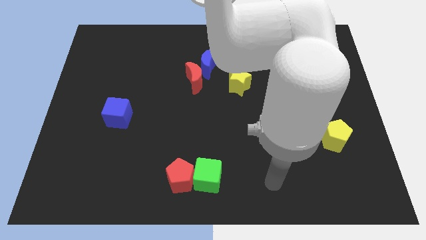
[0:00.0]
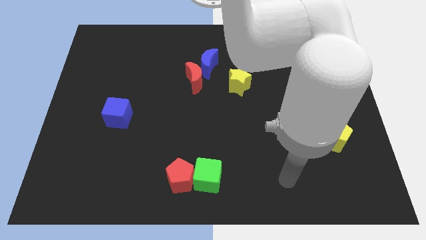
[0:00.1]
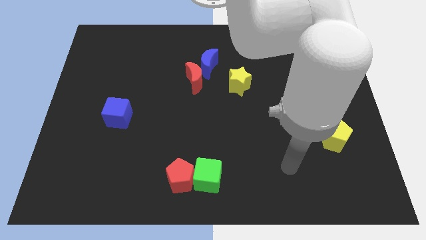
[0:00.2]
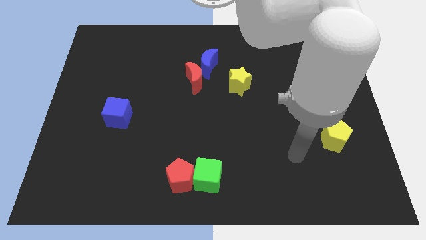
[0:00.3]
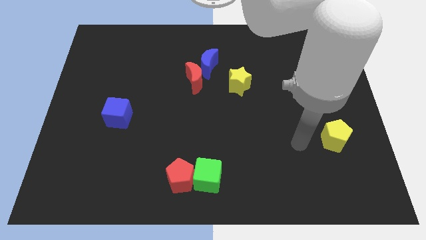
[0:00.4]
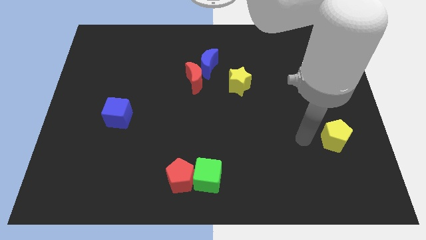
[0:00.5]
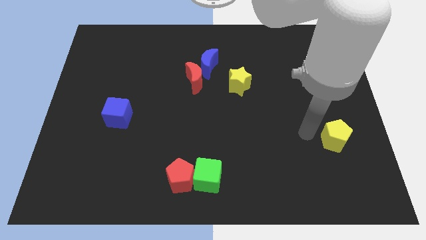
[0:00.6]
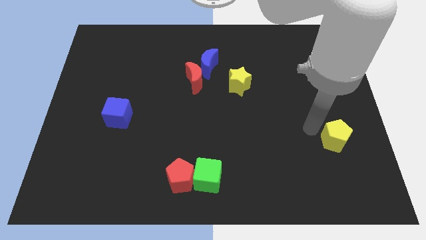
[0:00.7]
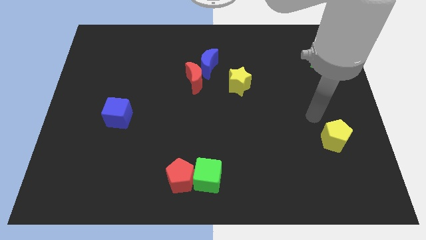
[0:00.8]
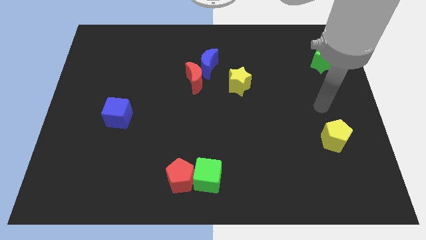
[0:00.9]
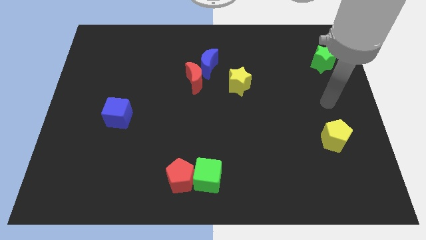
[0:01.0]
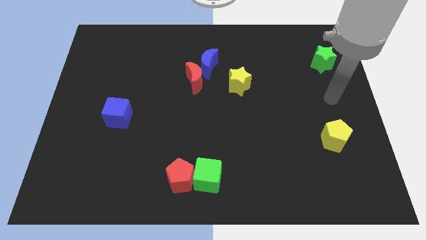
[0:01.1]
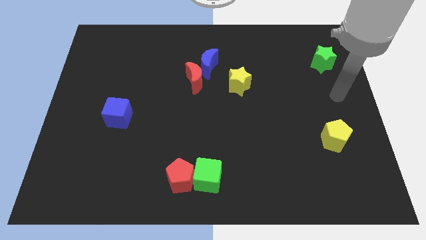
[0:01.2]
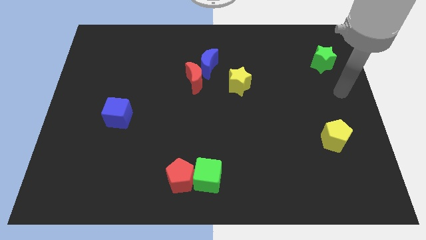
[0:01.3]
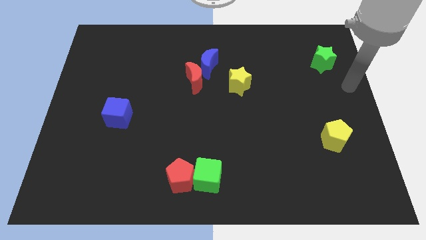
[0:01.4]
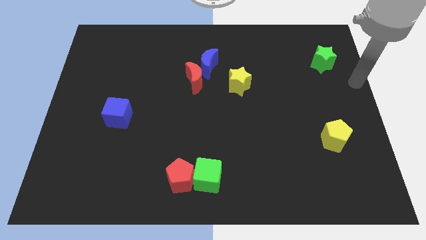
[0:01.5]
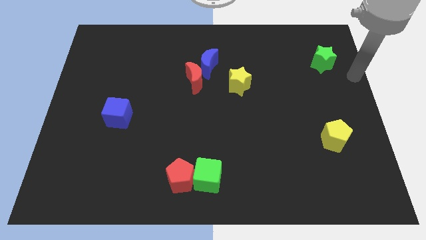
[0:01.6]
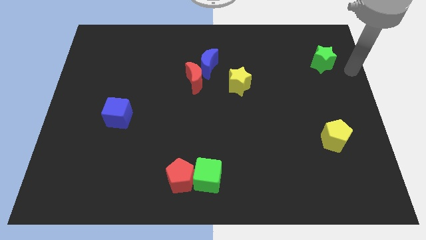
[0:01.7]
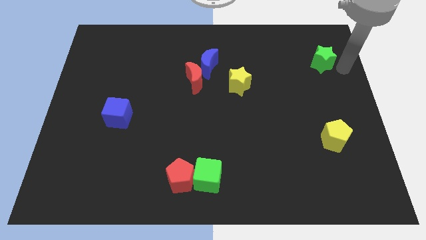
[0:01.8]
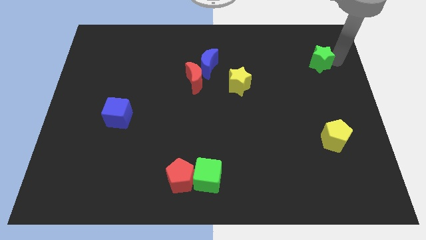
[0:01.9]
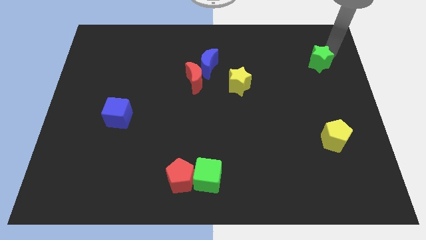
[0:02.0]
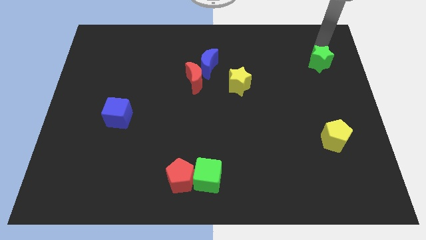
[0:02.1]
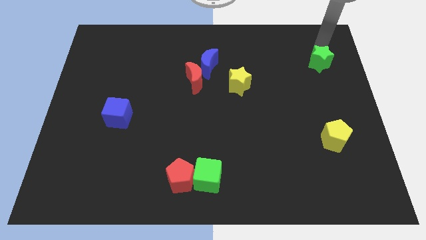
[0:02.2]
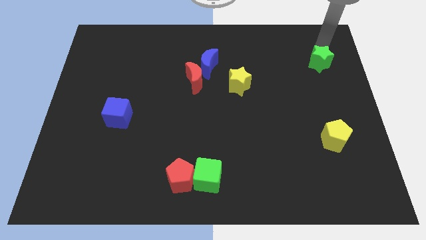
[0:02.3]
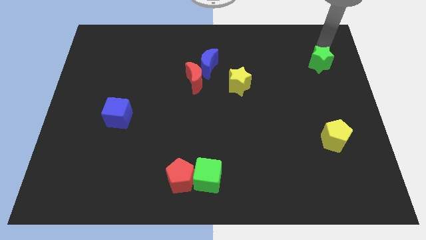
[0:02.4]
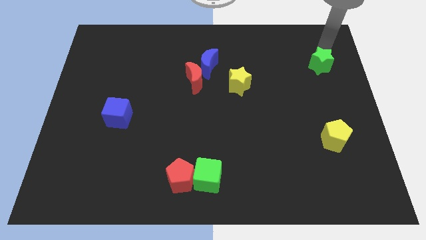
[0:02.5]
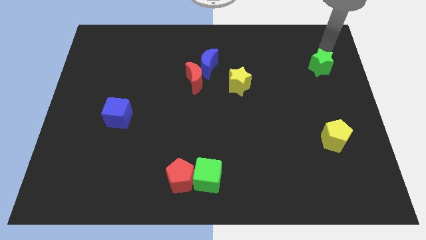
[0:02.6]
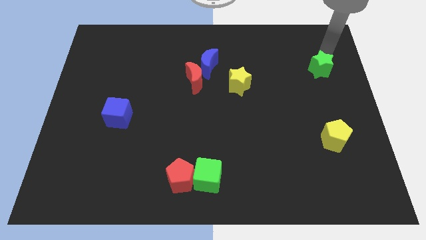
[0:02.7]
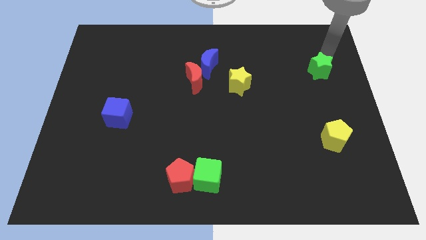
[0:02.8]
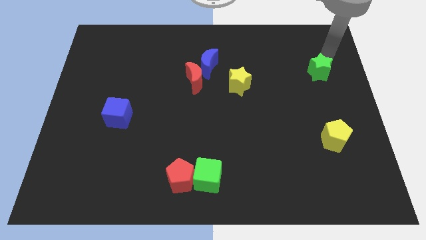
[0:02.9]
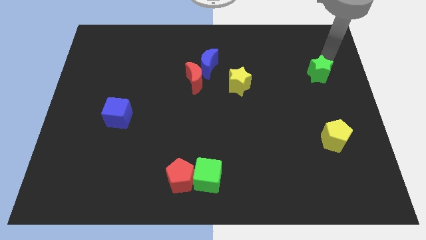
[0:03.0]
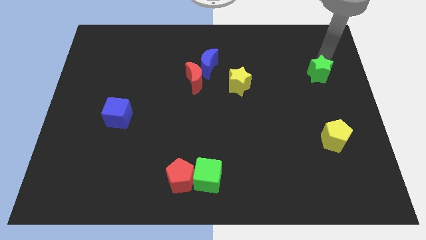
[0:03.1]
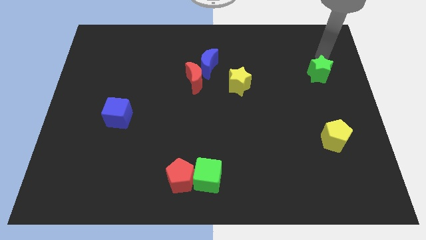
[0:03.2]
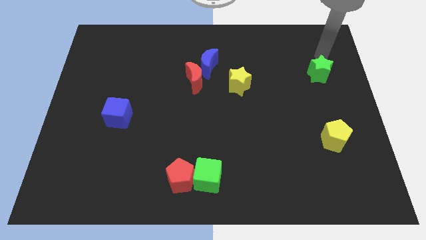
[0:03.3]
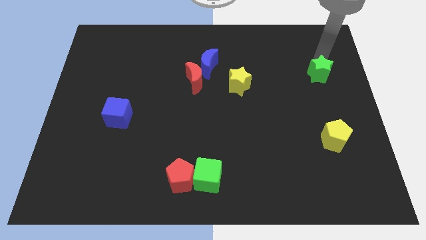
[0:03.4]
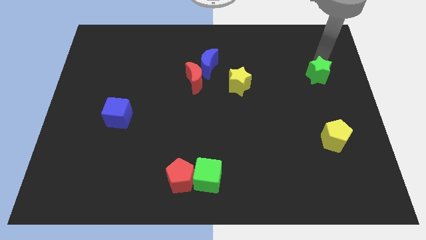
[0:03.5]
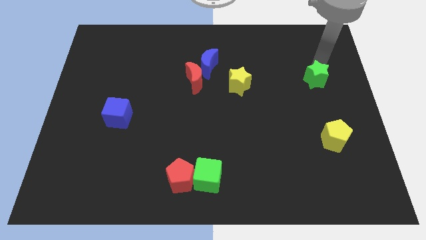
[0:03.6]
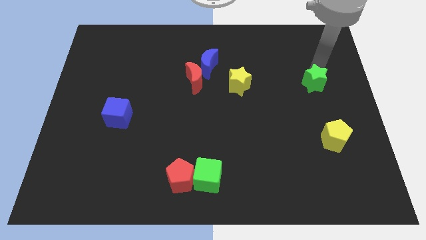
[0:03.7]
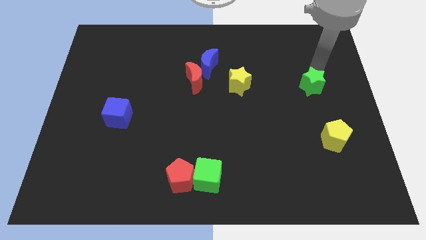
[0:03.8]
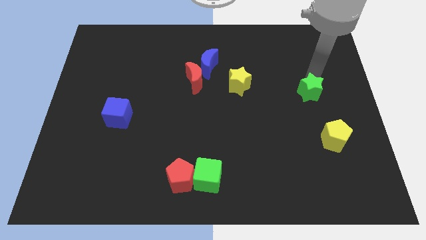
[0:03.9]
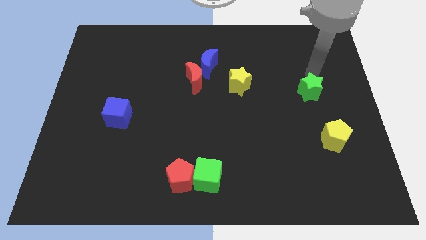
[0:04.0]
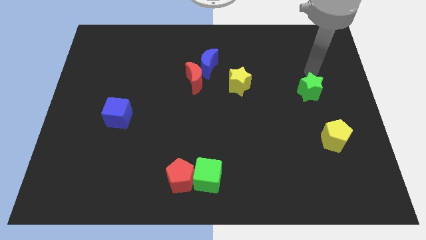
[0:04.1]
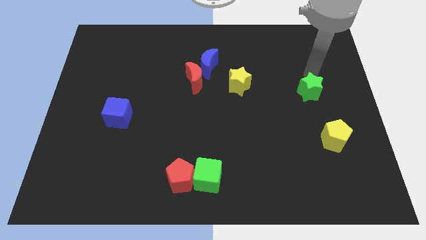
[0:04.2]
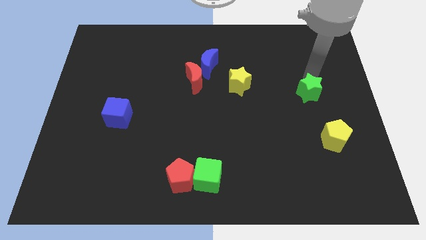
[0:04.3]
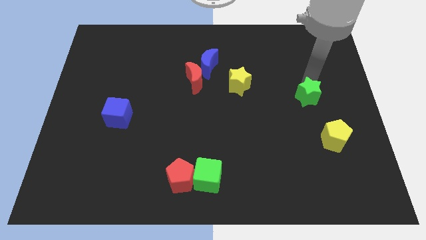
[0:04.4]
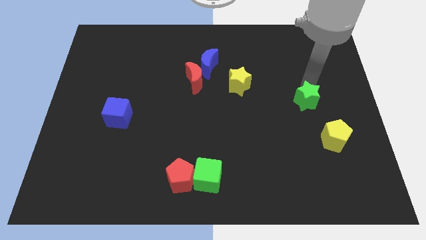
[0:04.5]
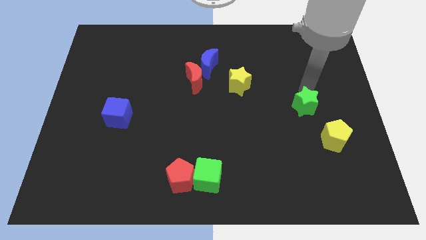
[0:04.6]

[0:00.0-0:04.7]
move the green star to the top left of the yellow pentagon

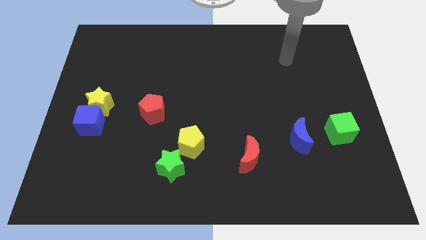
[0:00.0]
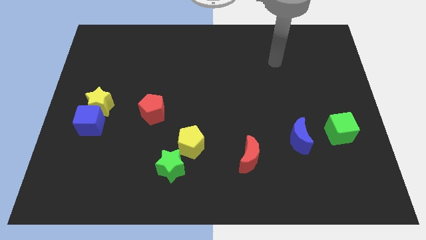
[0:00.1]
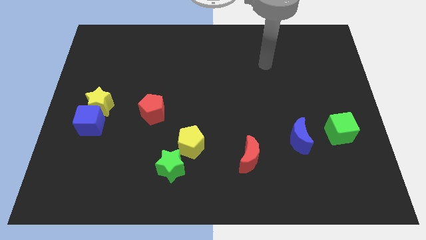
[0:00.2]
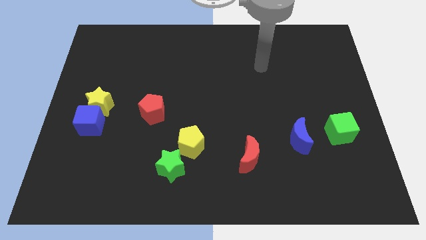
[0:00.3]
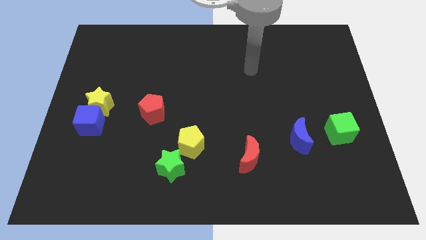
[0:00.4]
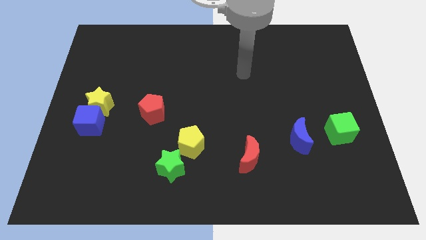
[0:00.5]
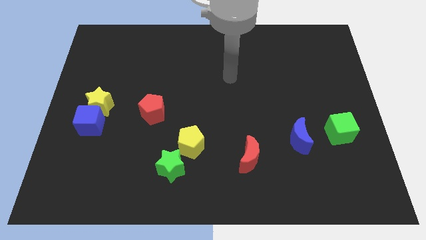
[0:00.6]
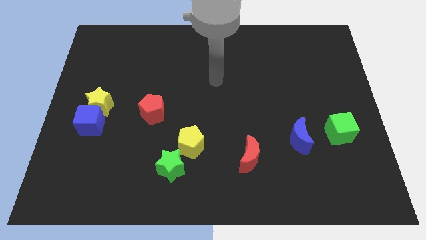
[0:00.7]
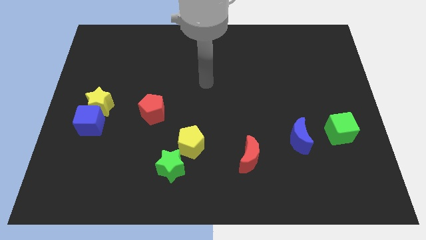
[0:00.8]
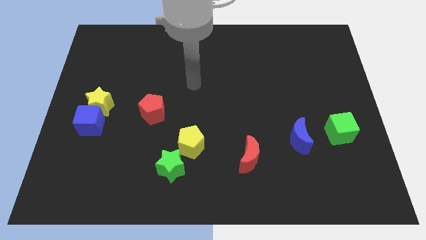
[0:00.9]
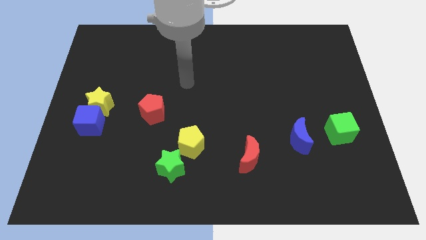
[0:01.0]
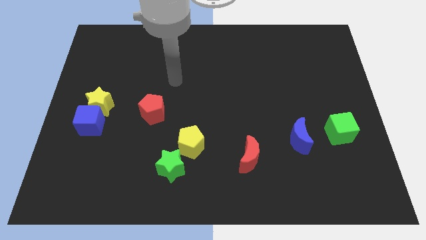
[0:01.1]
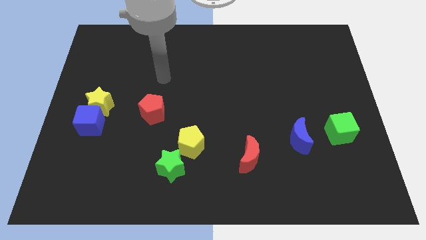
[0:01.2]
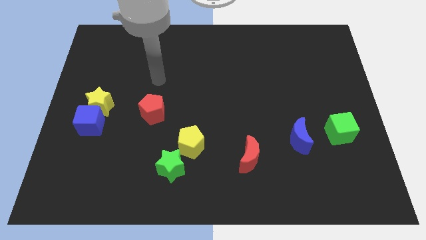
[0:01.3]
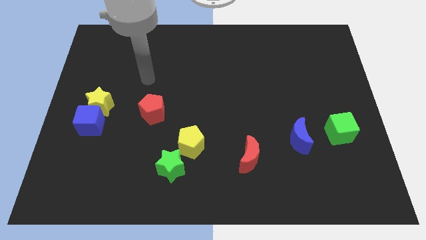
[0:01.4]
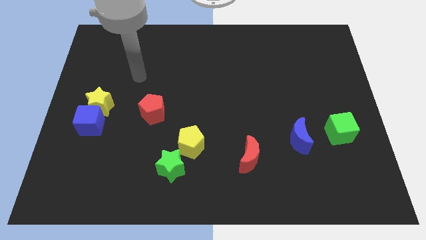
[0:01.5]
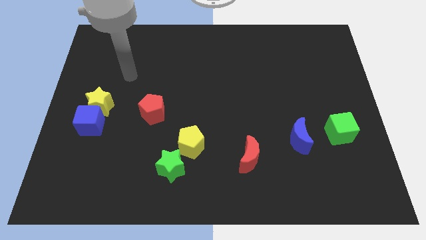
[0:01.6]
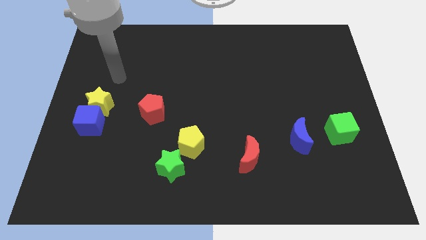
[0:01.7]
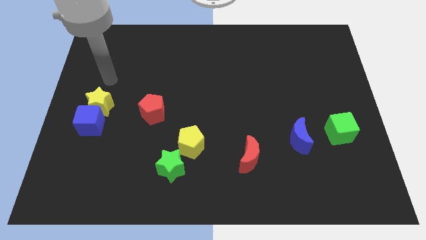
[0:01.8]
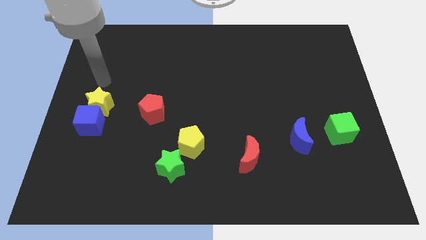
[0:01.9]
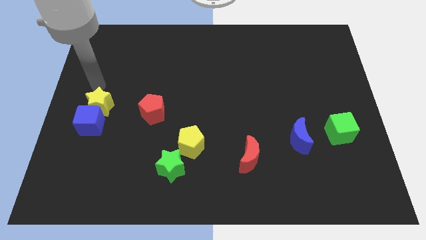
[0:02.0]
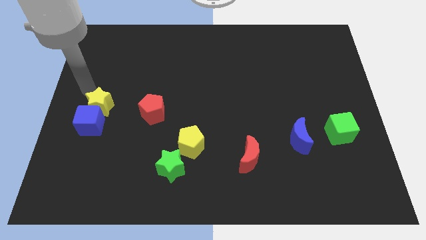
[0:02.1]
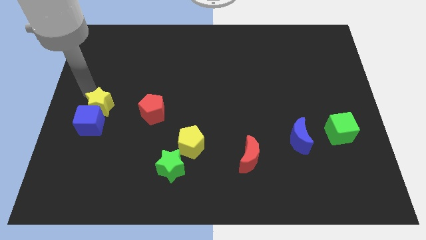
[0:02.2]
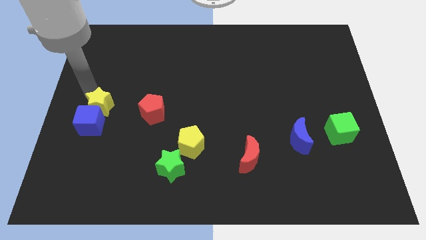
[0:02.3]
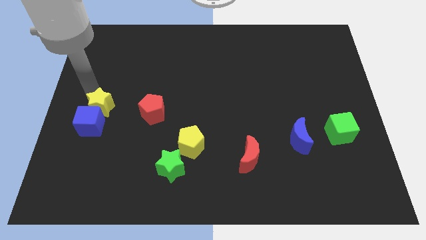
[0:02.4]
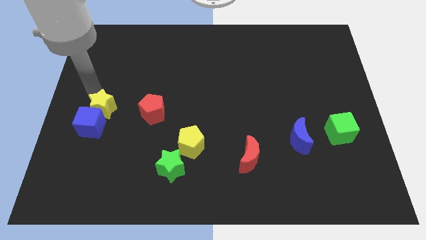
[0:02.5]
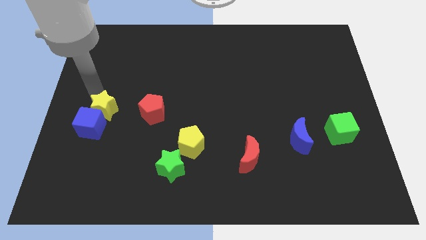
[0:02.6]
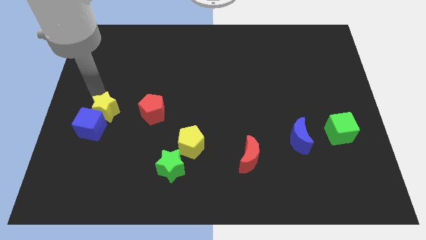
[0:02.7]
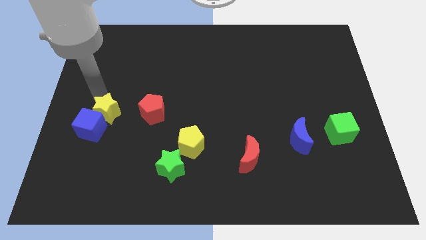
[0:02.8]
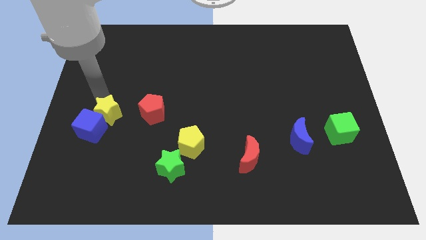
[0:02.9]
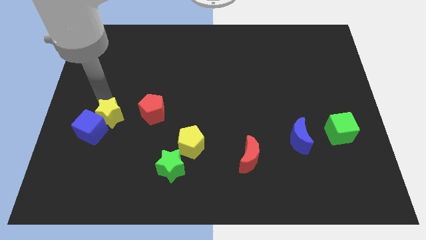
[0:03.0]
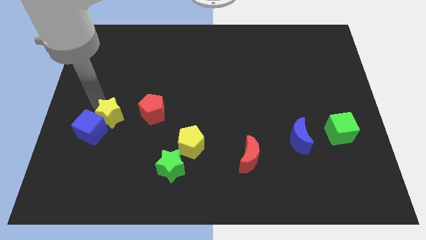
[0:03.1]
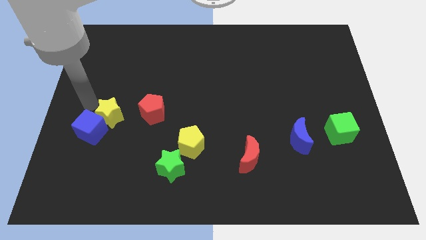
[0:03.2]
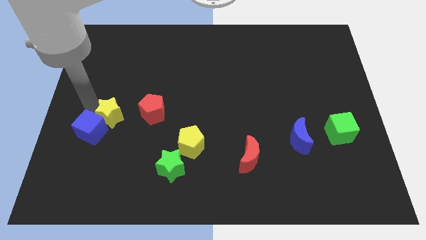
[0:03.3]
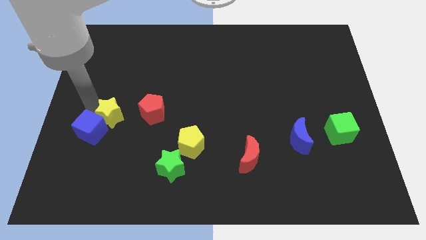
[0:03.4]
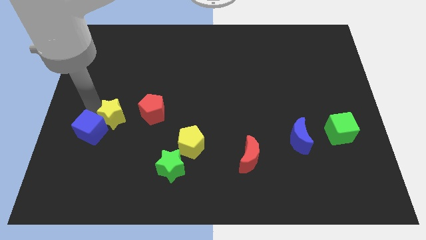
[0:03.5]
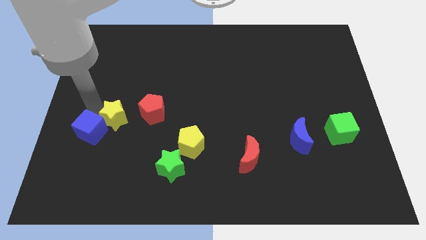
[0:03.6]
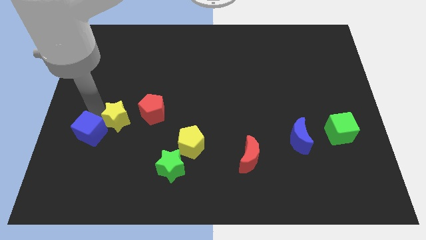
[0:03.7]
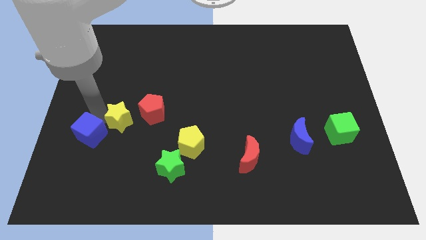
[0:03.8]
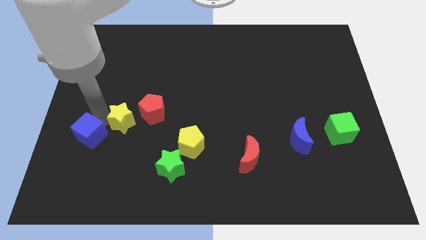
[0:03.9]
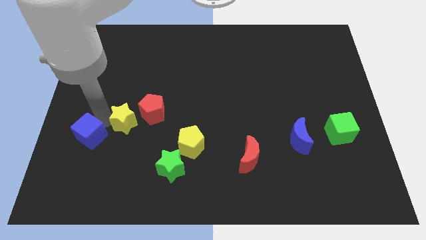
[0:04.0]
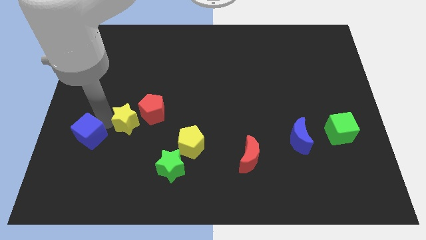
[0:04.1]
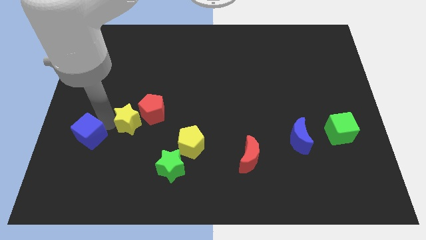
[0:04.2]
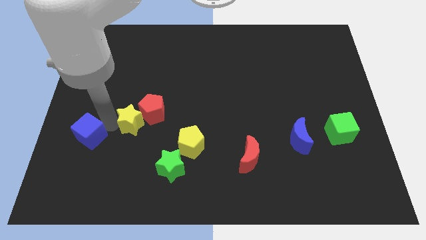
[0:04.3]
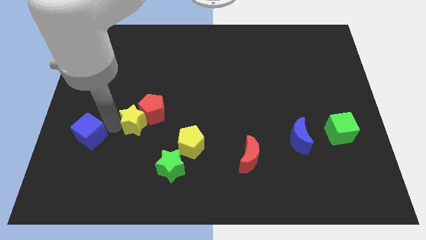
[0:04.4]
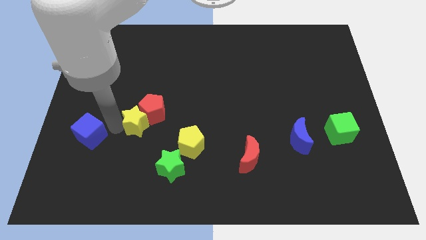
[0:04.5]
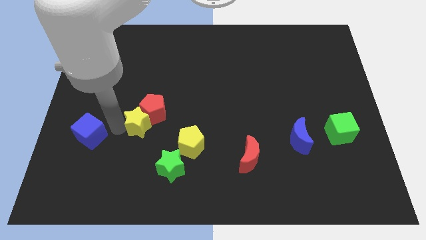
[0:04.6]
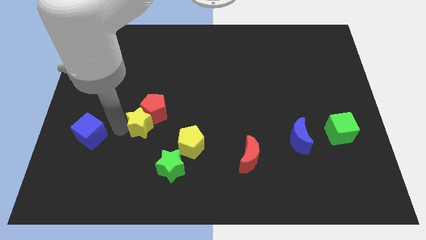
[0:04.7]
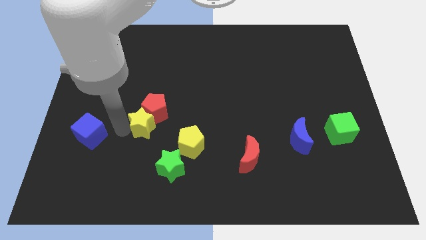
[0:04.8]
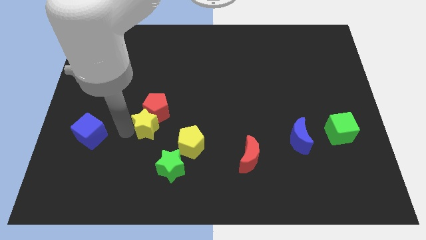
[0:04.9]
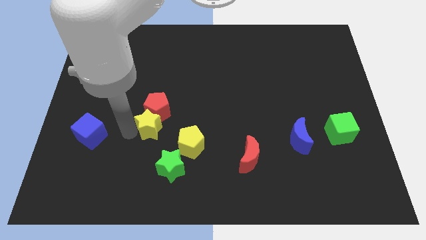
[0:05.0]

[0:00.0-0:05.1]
slide the yellow star to the bottom right of the red pentagon
